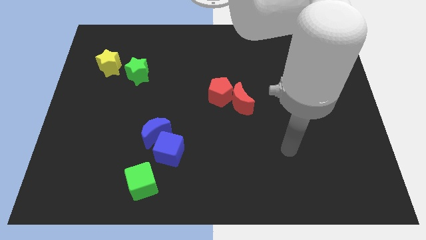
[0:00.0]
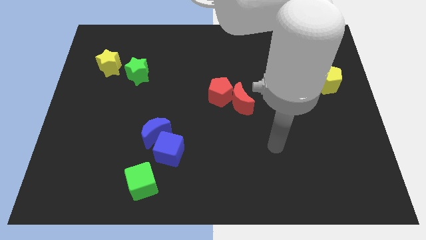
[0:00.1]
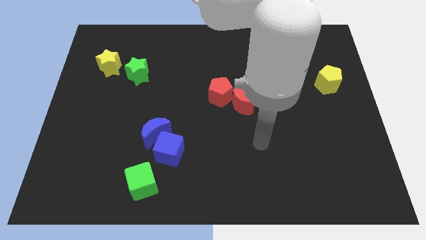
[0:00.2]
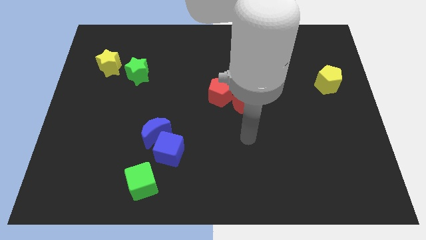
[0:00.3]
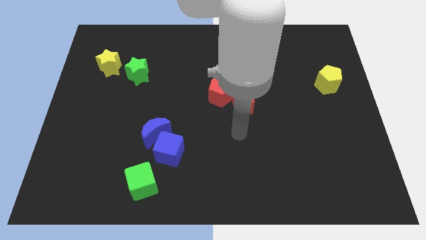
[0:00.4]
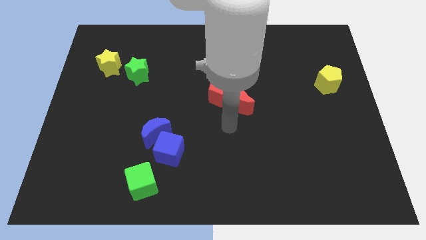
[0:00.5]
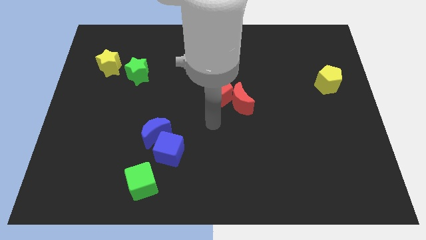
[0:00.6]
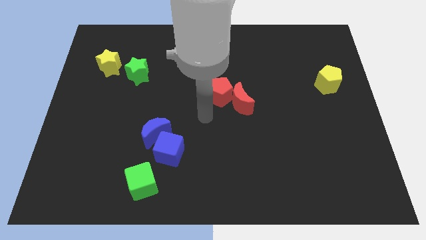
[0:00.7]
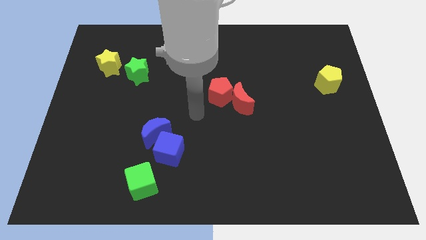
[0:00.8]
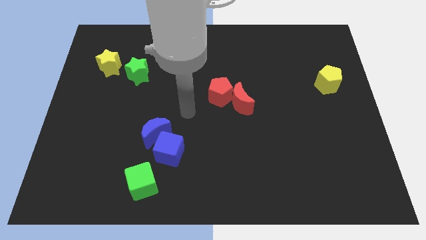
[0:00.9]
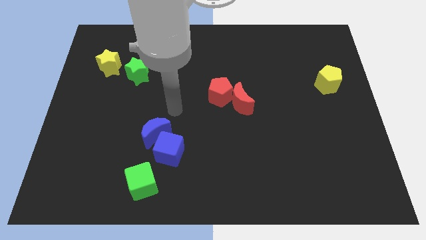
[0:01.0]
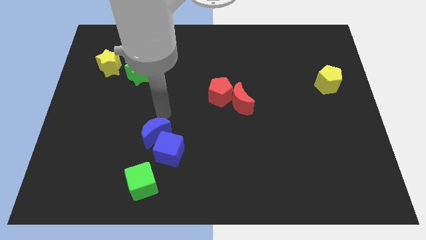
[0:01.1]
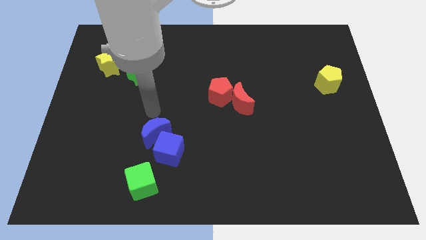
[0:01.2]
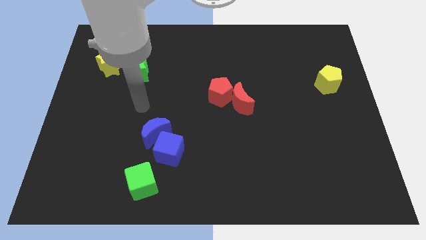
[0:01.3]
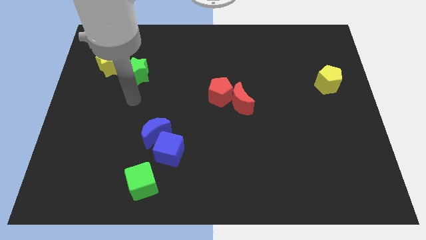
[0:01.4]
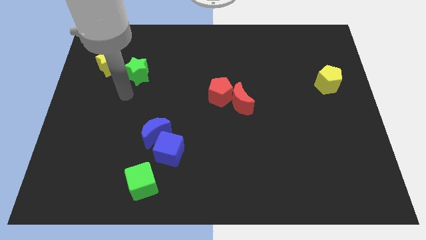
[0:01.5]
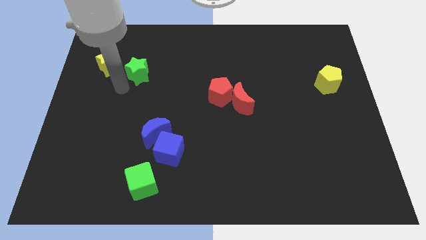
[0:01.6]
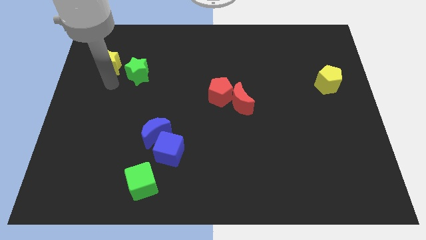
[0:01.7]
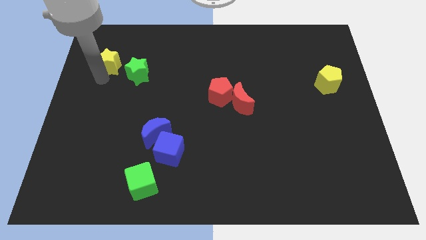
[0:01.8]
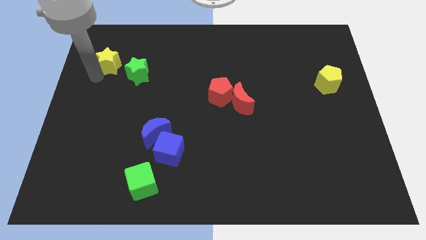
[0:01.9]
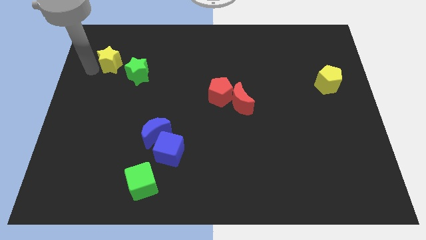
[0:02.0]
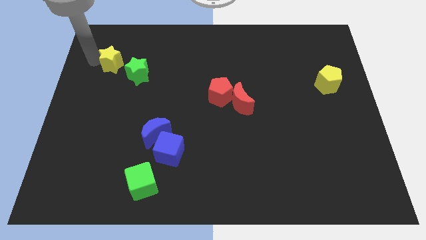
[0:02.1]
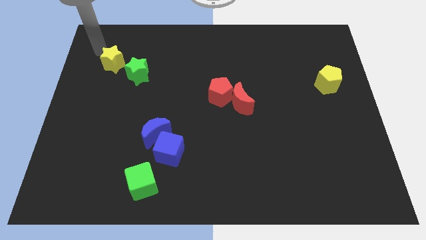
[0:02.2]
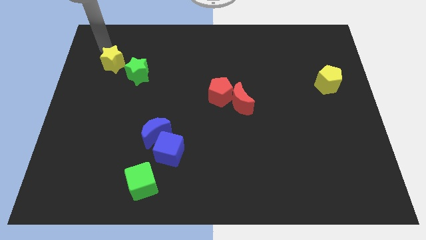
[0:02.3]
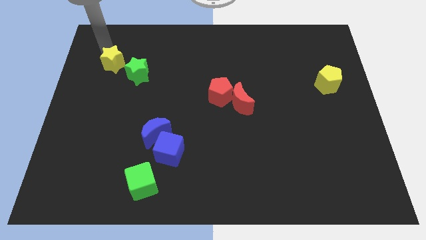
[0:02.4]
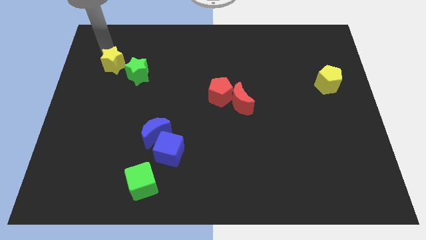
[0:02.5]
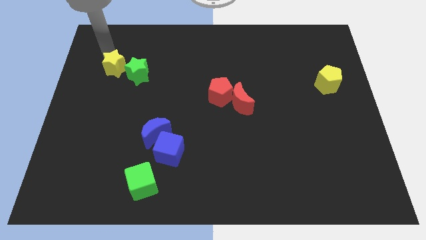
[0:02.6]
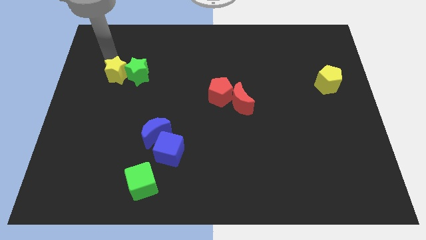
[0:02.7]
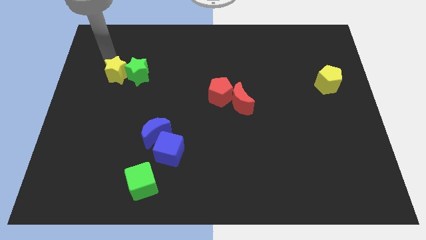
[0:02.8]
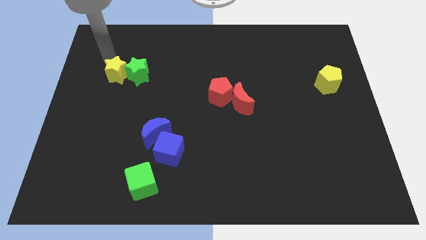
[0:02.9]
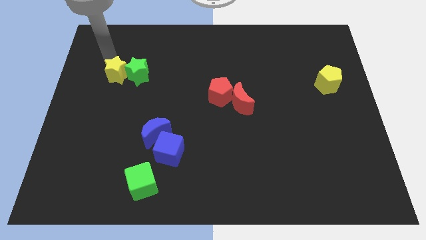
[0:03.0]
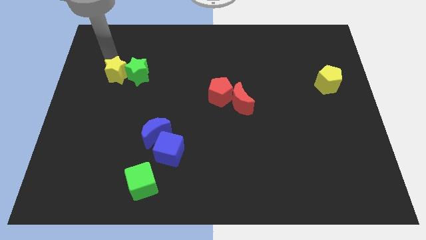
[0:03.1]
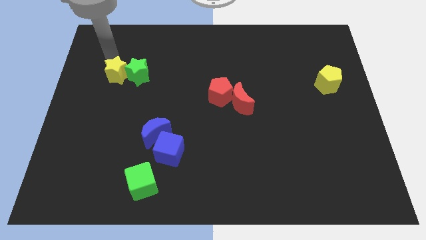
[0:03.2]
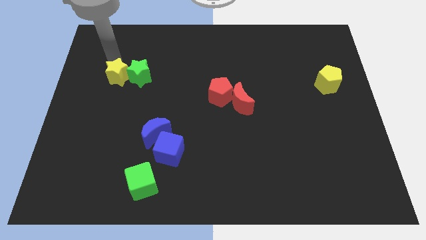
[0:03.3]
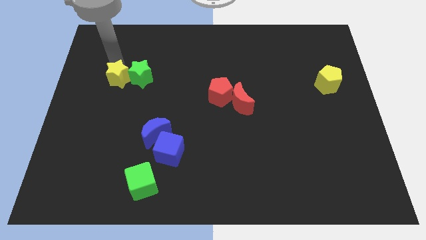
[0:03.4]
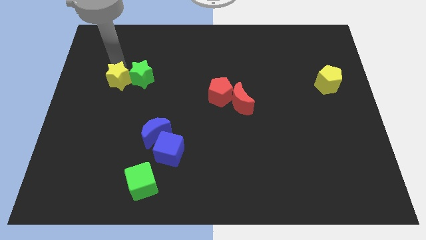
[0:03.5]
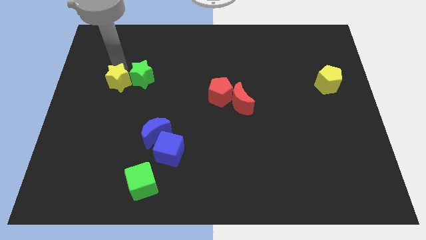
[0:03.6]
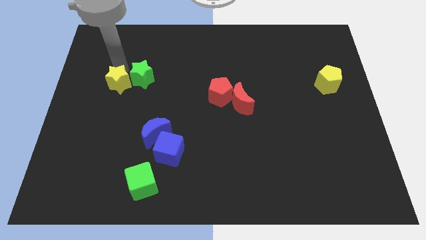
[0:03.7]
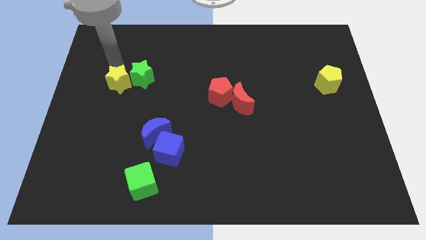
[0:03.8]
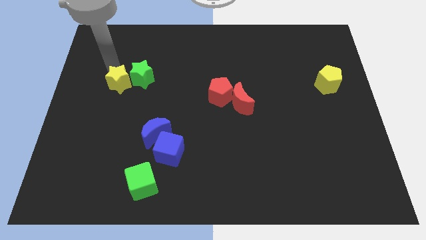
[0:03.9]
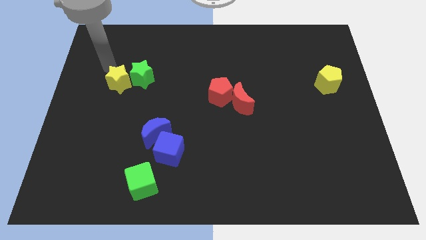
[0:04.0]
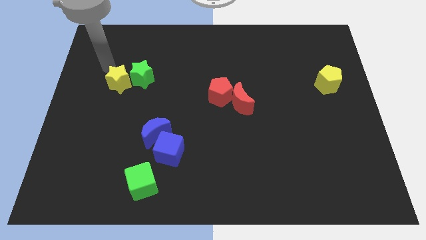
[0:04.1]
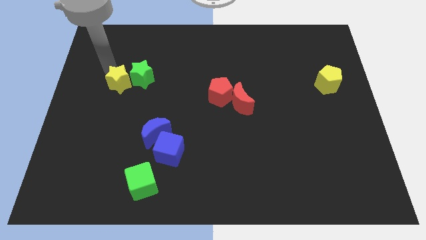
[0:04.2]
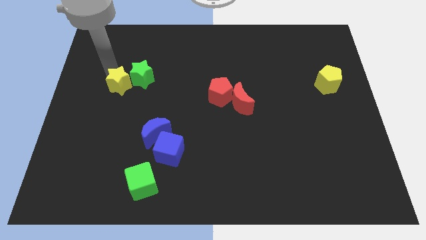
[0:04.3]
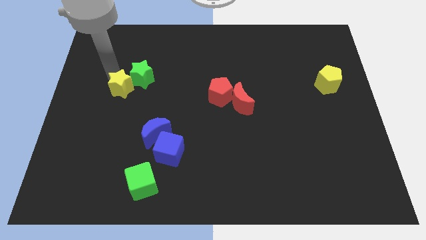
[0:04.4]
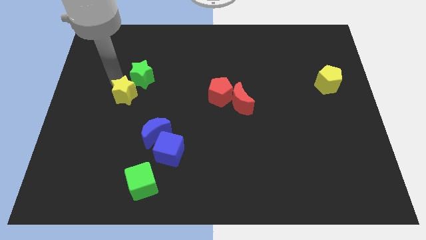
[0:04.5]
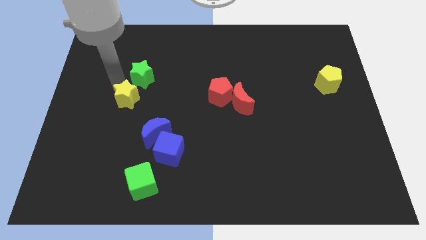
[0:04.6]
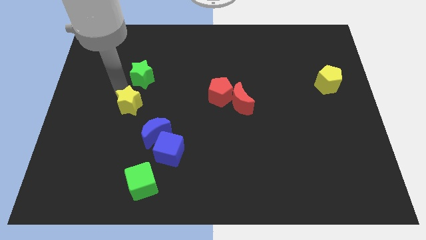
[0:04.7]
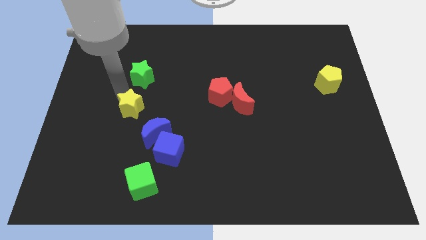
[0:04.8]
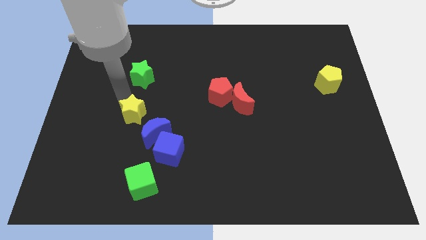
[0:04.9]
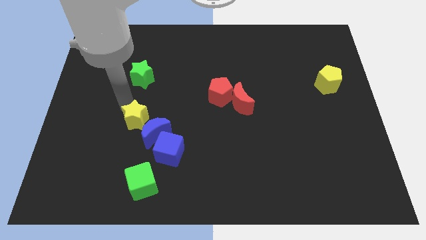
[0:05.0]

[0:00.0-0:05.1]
move the yellow star towards the blue moon

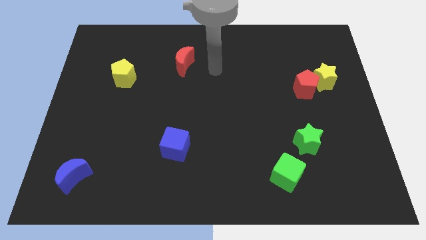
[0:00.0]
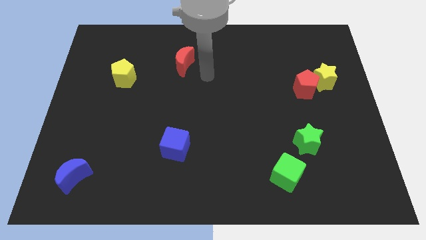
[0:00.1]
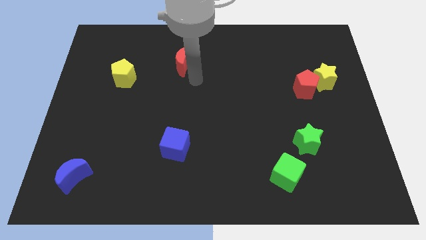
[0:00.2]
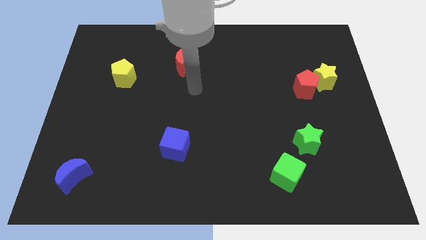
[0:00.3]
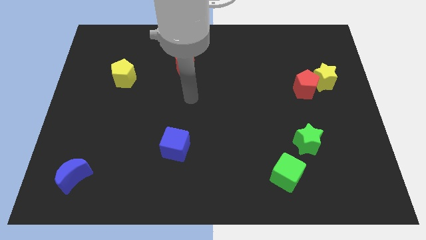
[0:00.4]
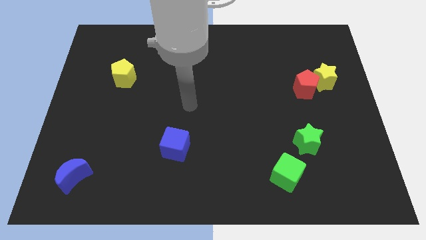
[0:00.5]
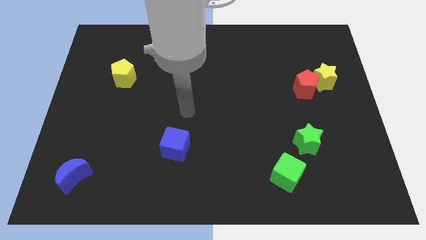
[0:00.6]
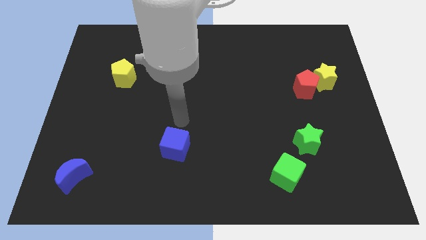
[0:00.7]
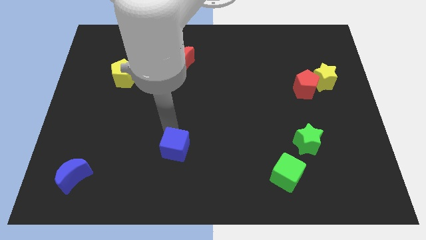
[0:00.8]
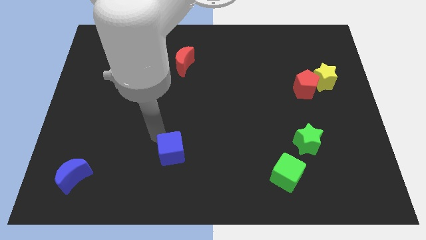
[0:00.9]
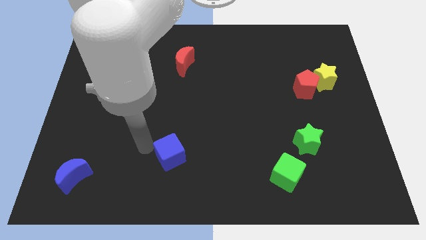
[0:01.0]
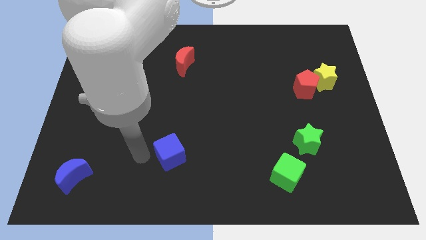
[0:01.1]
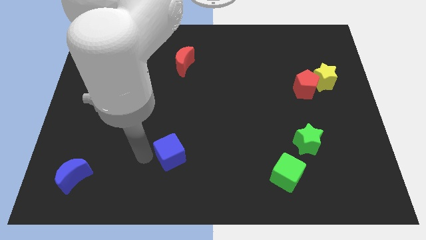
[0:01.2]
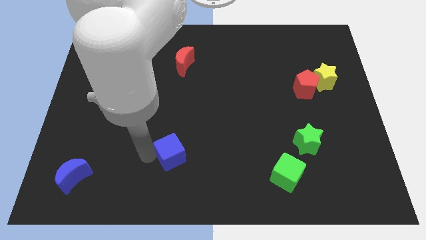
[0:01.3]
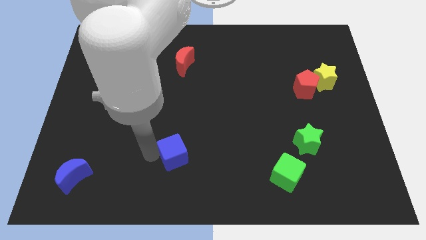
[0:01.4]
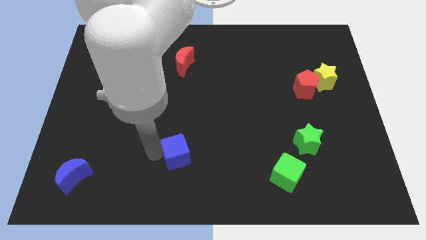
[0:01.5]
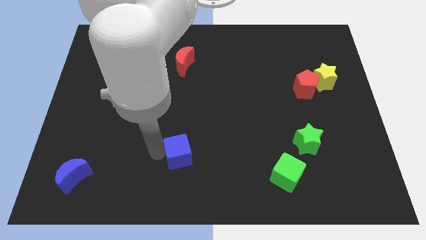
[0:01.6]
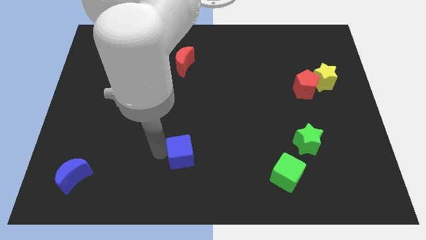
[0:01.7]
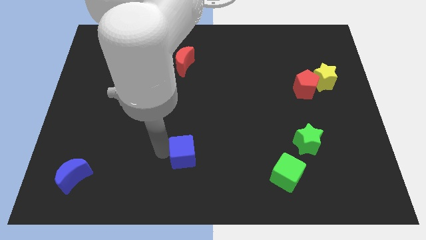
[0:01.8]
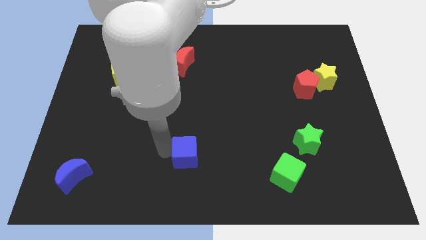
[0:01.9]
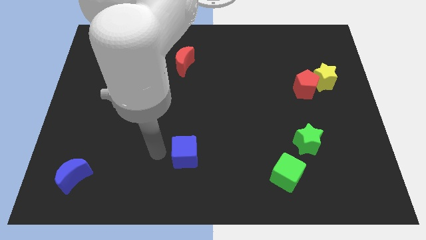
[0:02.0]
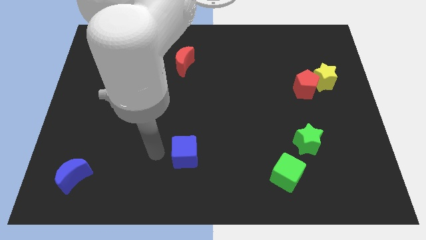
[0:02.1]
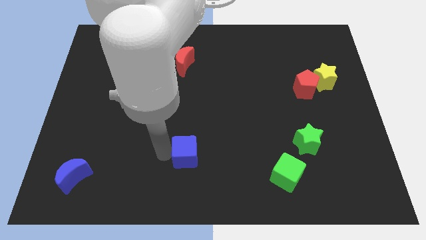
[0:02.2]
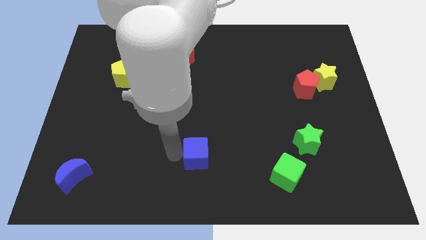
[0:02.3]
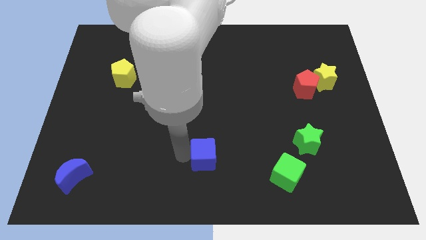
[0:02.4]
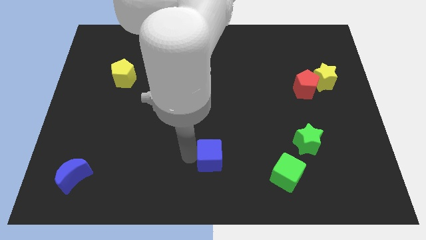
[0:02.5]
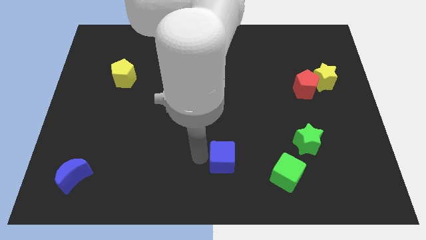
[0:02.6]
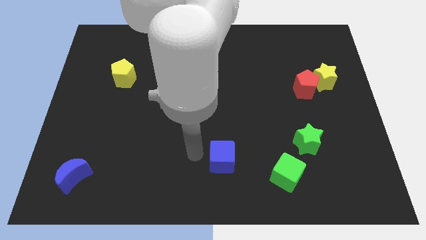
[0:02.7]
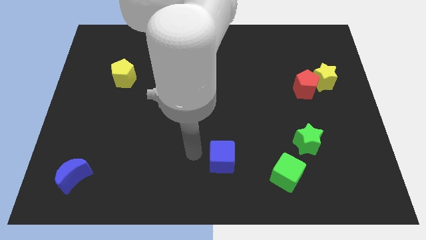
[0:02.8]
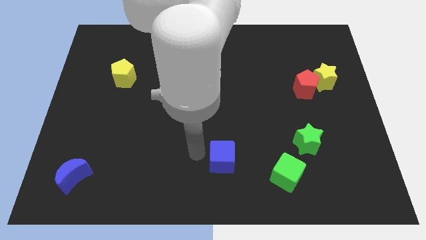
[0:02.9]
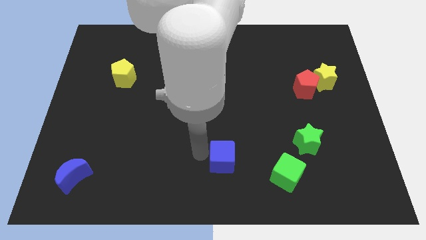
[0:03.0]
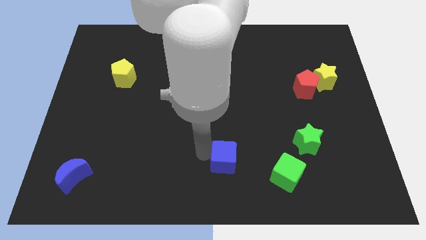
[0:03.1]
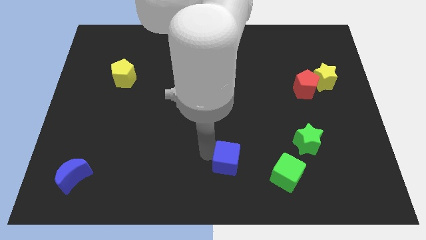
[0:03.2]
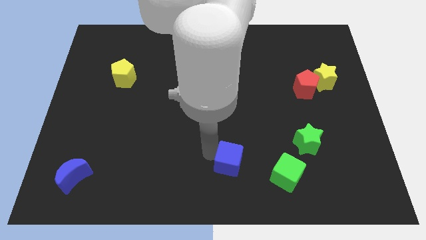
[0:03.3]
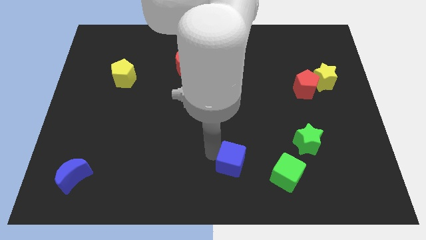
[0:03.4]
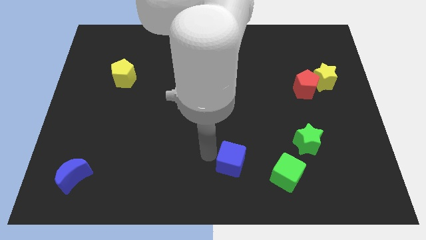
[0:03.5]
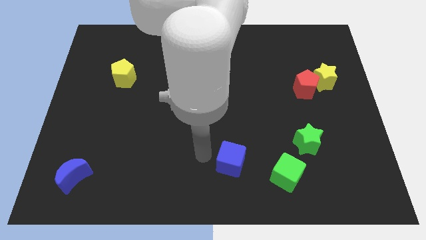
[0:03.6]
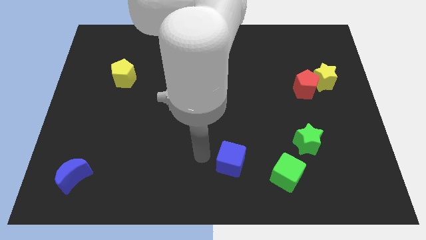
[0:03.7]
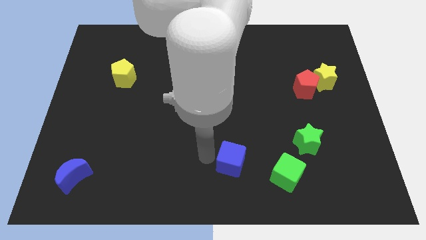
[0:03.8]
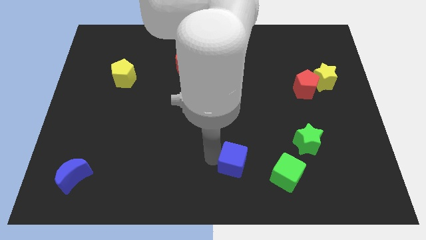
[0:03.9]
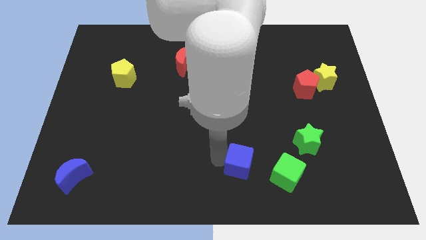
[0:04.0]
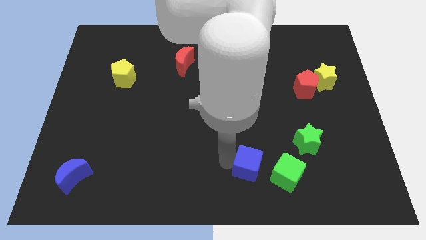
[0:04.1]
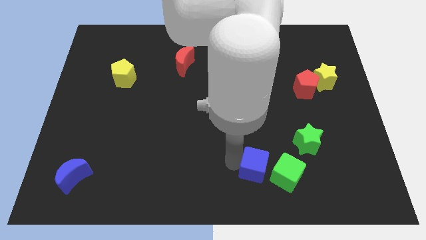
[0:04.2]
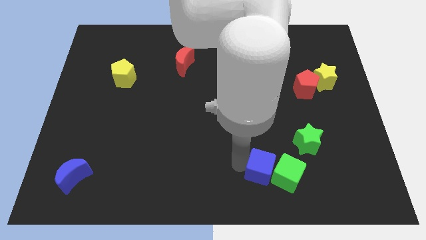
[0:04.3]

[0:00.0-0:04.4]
put the blue cube next to the green cube
